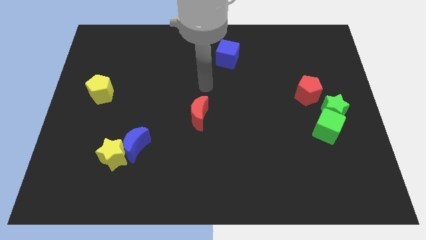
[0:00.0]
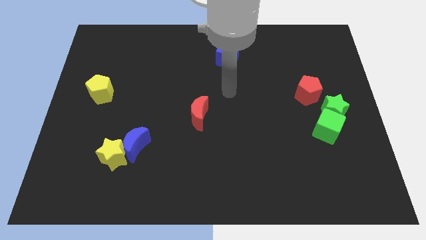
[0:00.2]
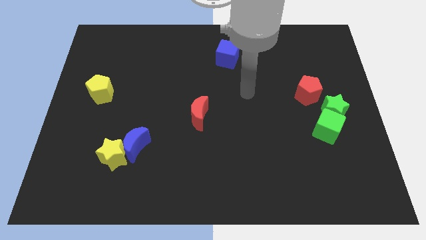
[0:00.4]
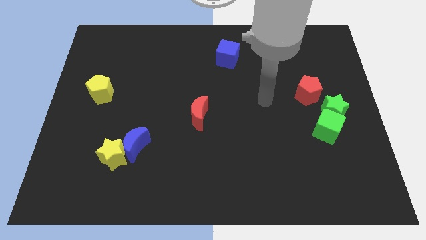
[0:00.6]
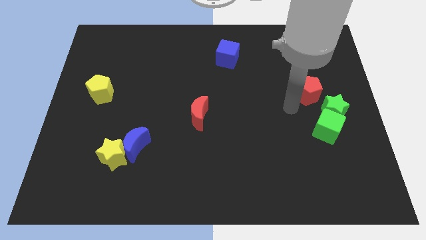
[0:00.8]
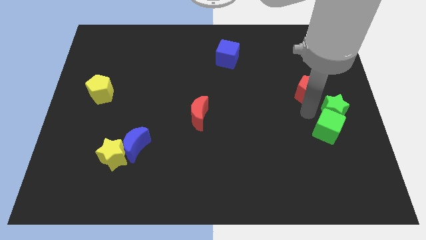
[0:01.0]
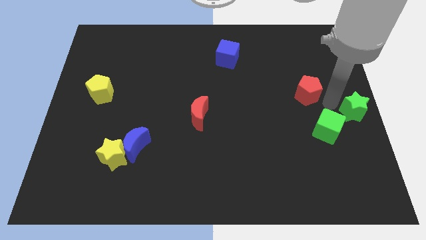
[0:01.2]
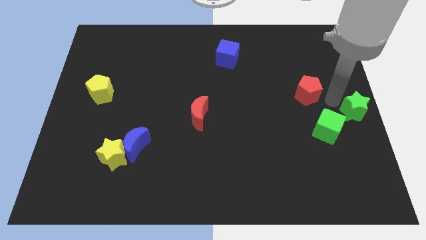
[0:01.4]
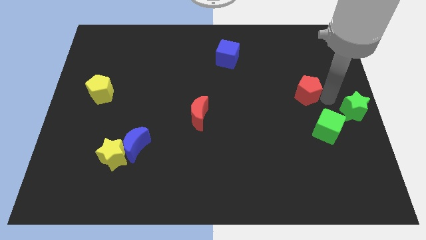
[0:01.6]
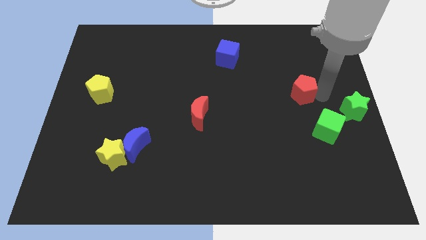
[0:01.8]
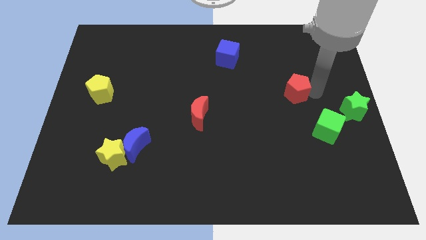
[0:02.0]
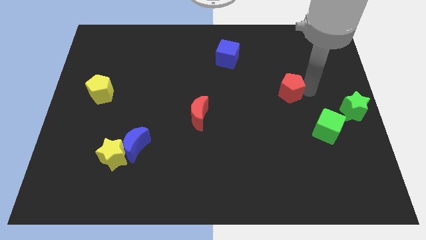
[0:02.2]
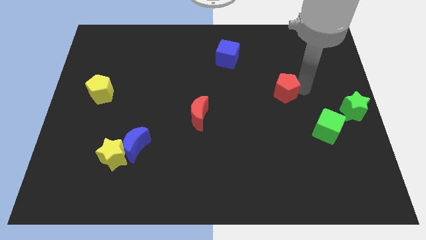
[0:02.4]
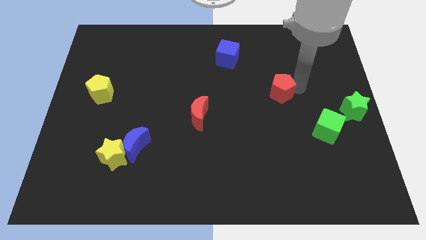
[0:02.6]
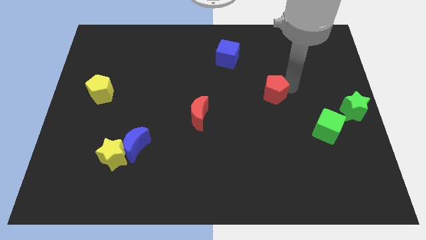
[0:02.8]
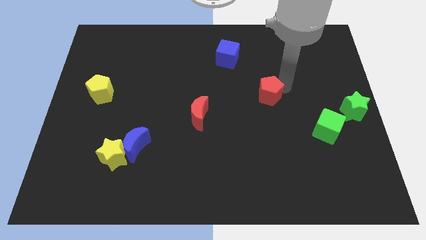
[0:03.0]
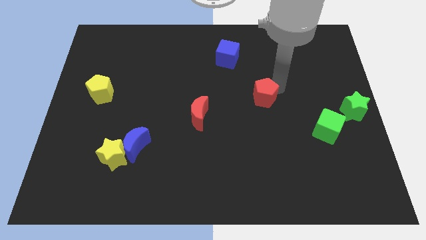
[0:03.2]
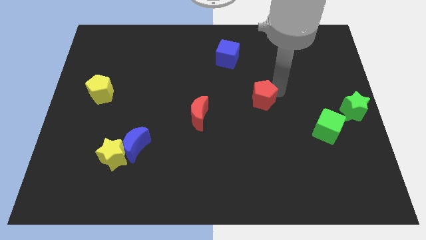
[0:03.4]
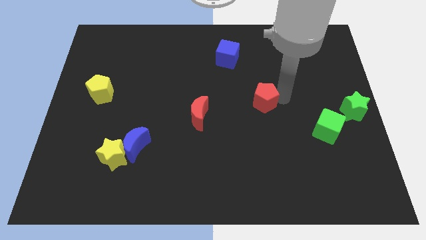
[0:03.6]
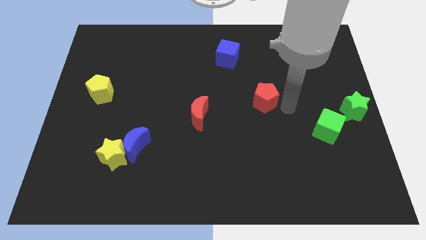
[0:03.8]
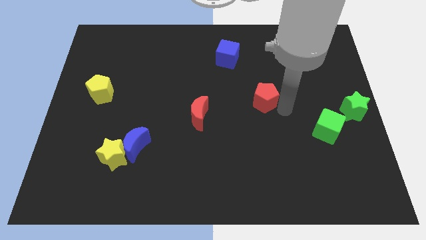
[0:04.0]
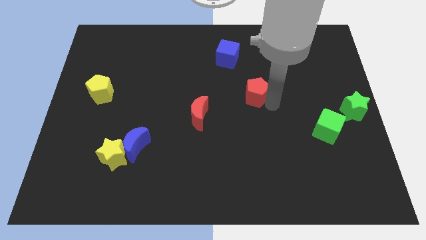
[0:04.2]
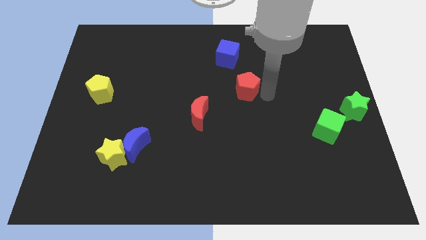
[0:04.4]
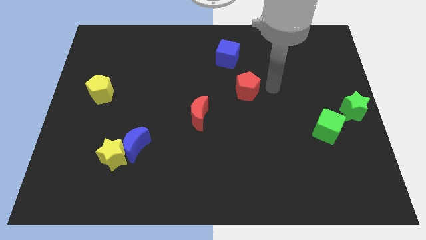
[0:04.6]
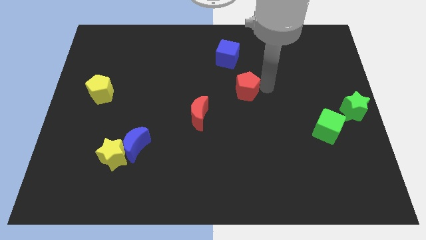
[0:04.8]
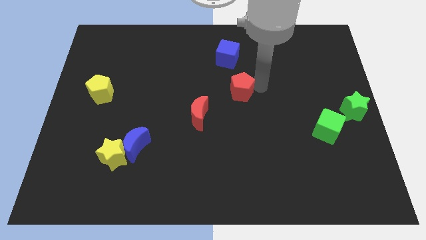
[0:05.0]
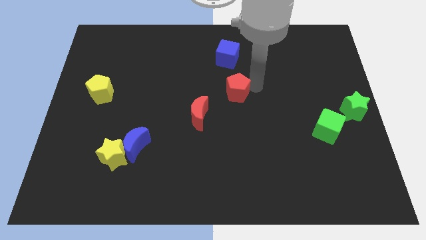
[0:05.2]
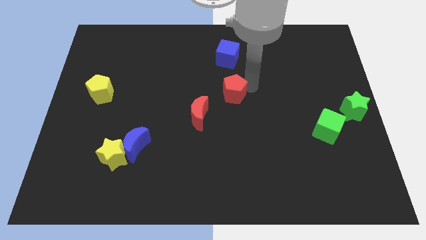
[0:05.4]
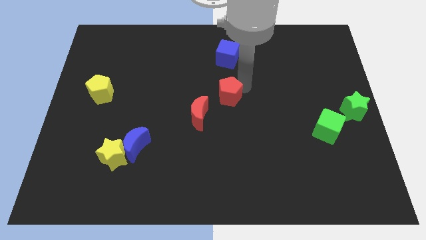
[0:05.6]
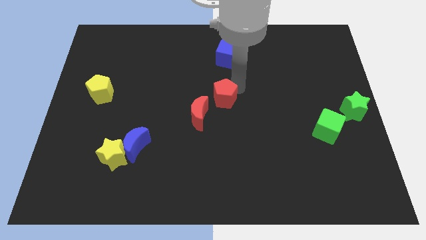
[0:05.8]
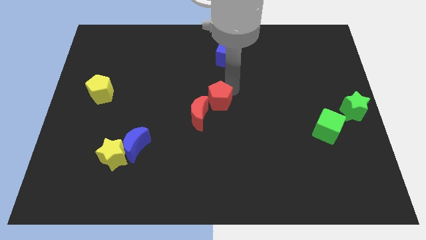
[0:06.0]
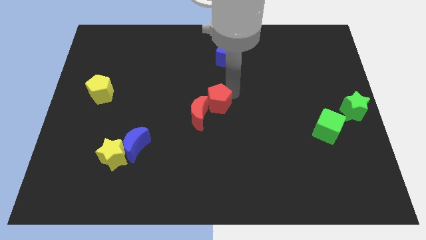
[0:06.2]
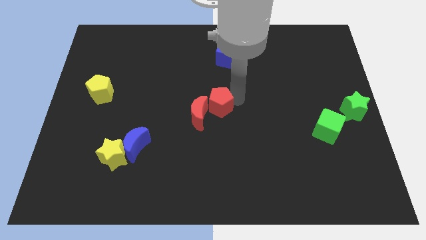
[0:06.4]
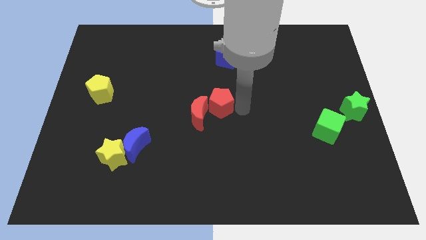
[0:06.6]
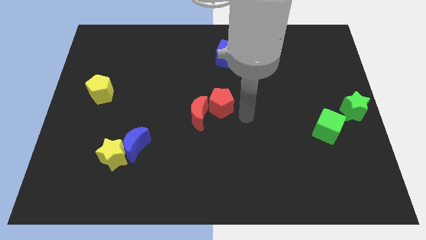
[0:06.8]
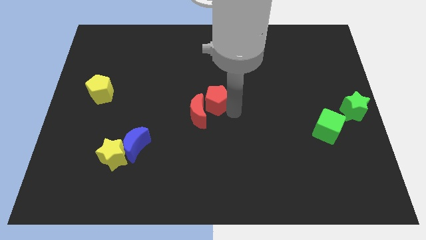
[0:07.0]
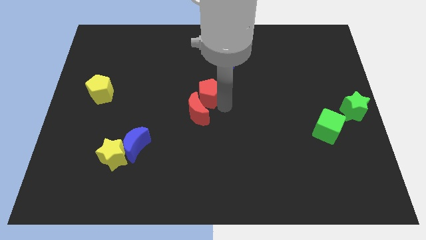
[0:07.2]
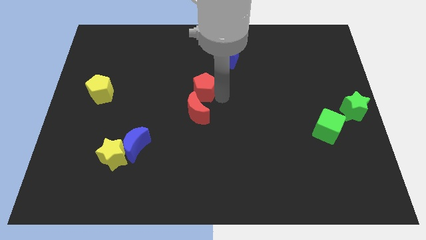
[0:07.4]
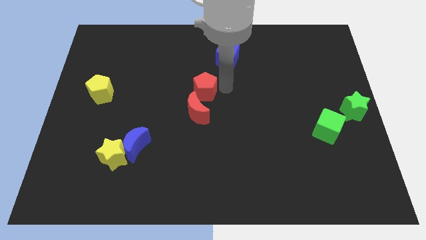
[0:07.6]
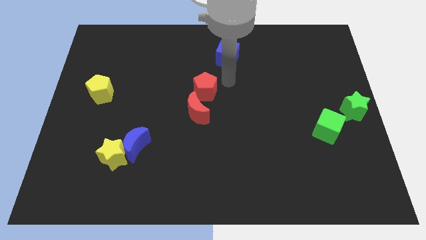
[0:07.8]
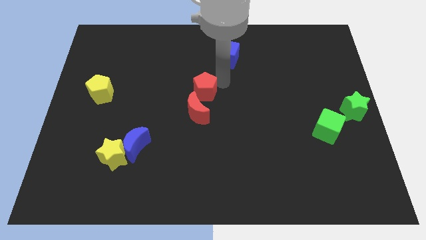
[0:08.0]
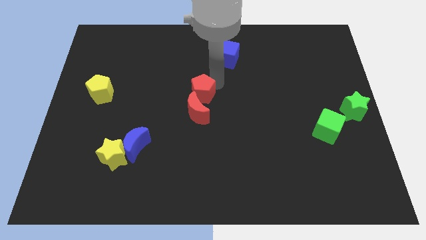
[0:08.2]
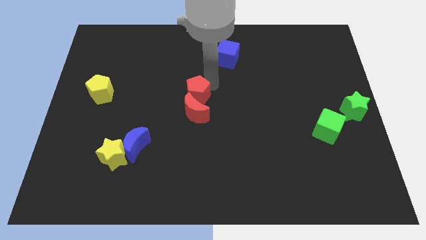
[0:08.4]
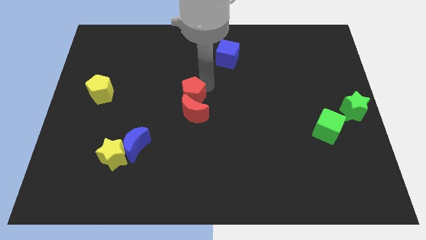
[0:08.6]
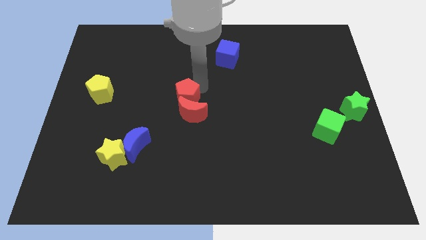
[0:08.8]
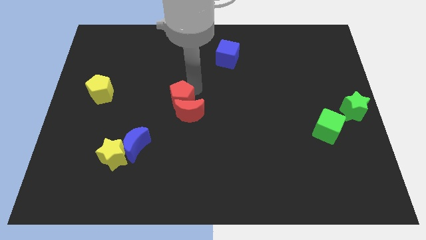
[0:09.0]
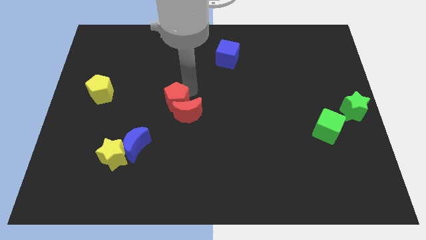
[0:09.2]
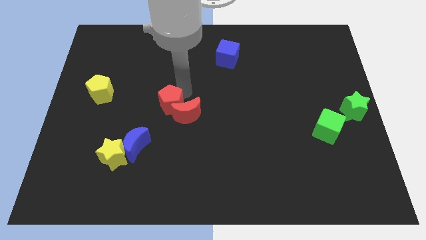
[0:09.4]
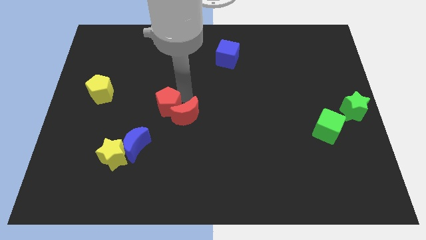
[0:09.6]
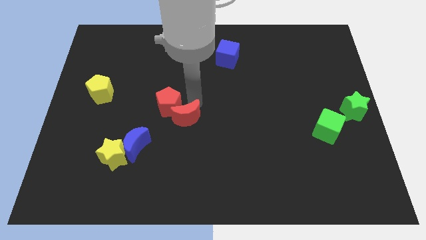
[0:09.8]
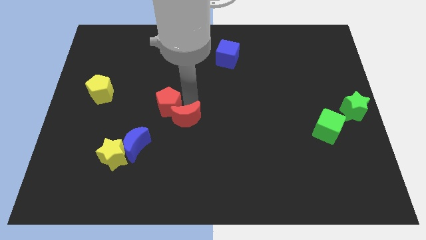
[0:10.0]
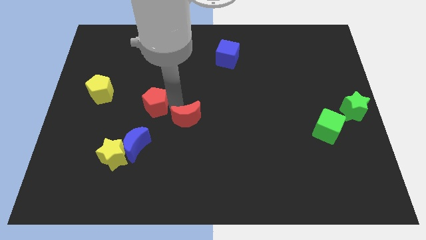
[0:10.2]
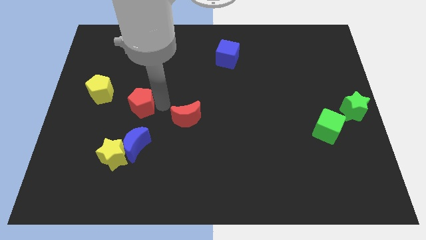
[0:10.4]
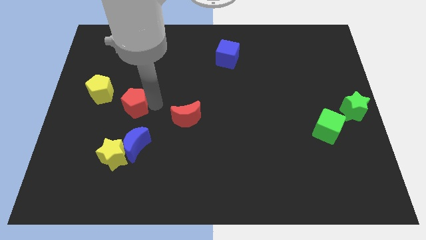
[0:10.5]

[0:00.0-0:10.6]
put the red pentagon above the yellow star

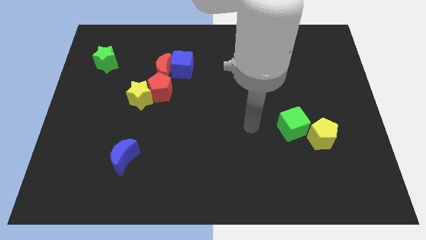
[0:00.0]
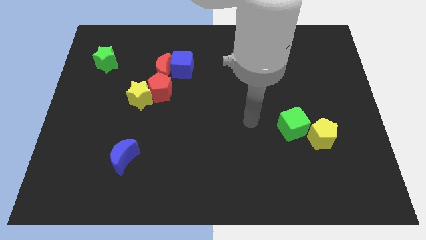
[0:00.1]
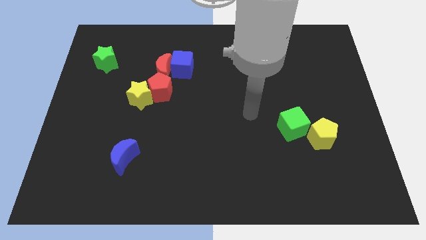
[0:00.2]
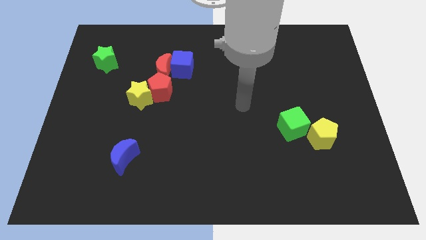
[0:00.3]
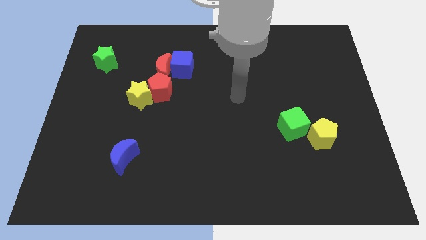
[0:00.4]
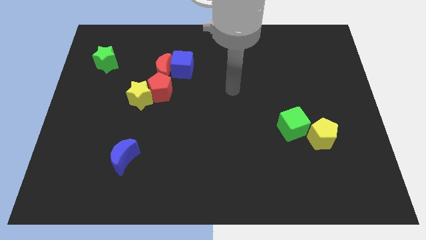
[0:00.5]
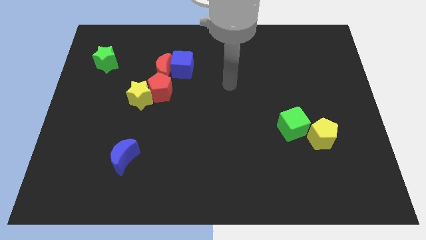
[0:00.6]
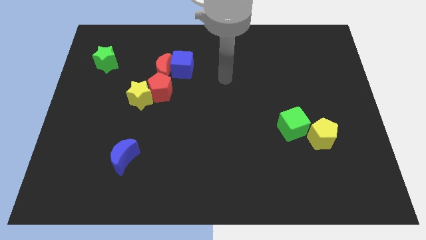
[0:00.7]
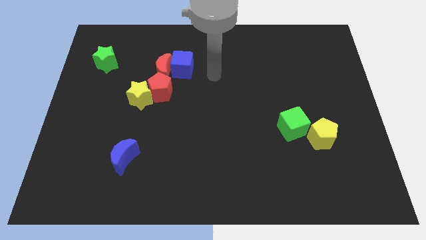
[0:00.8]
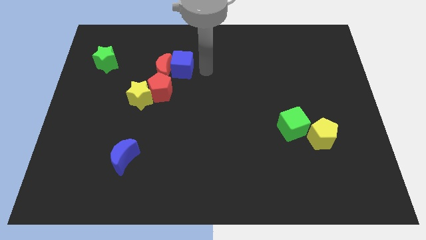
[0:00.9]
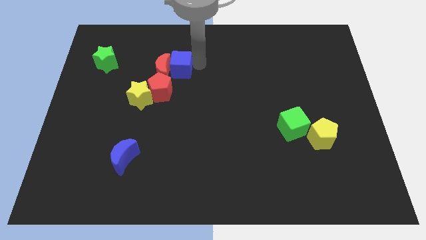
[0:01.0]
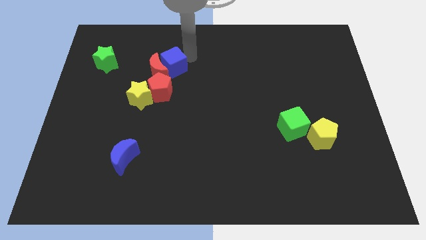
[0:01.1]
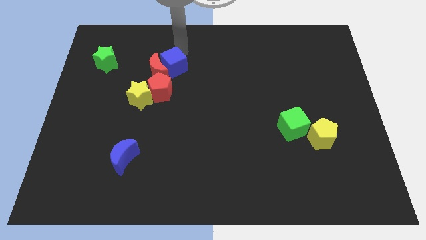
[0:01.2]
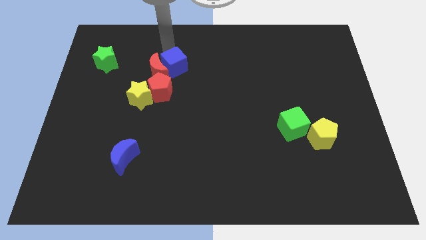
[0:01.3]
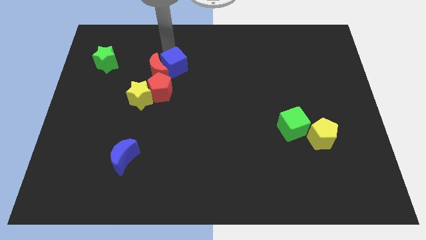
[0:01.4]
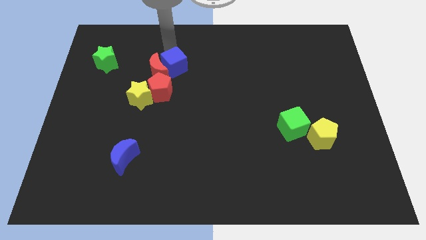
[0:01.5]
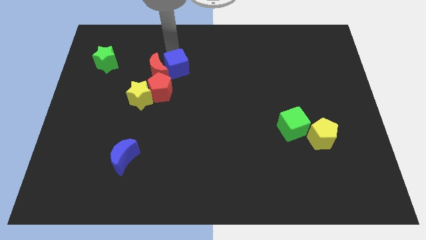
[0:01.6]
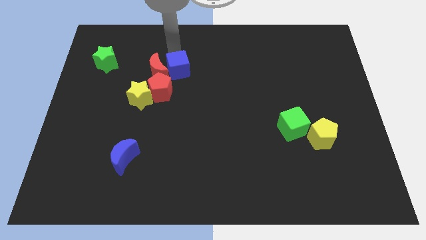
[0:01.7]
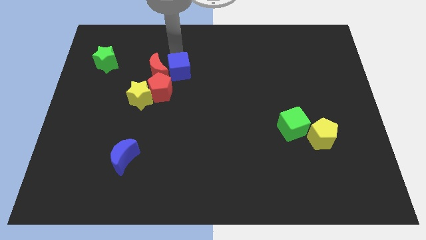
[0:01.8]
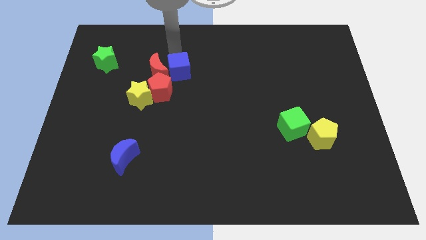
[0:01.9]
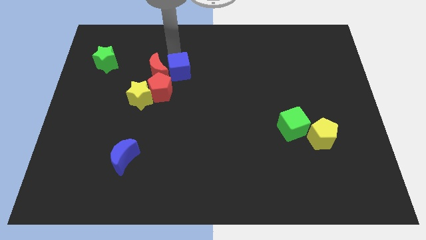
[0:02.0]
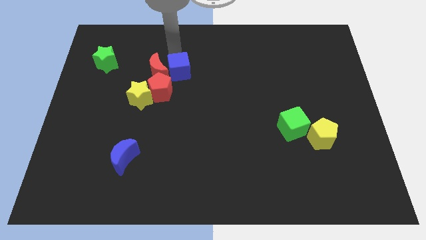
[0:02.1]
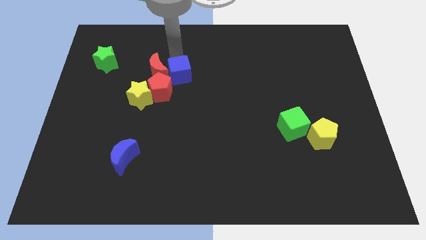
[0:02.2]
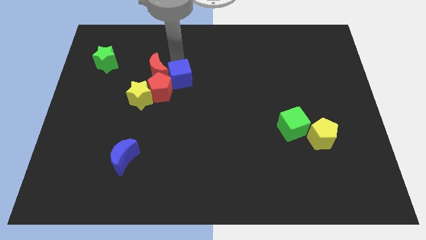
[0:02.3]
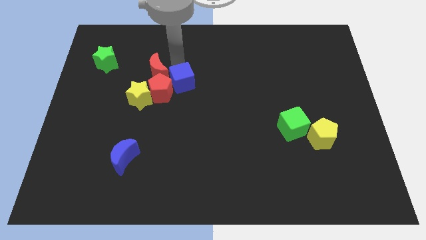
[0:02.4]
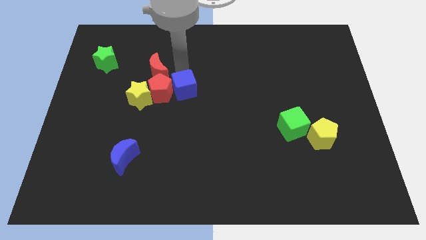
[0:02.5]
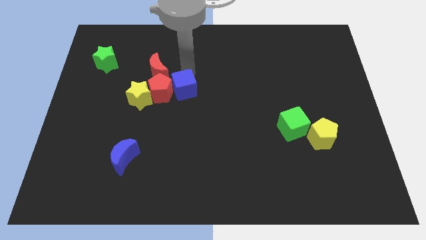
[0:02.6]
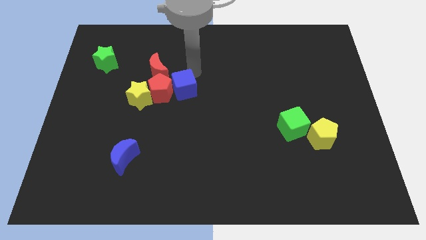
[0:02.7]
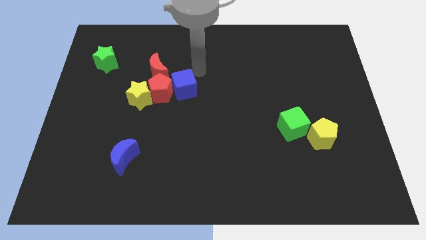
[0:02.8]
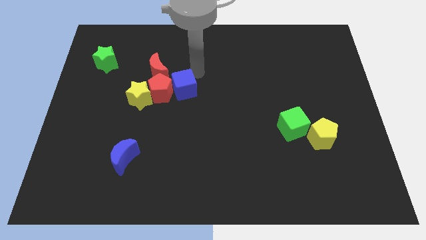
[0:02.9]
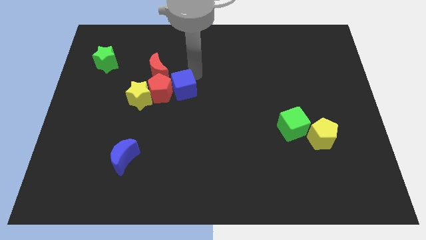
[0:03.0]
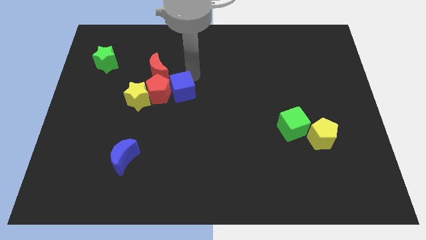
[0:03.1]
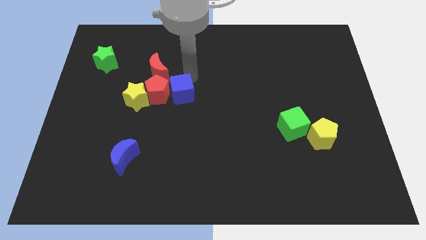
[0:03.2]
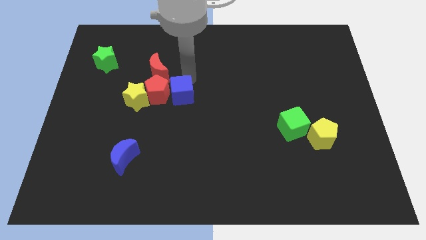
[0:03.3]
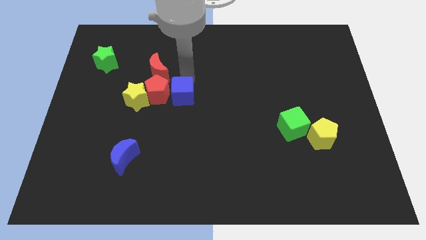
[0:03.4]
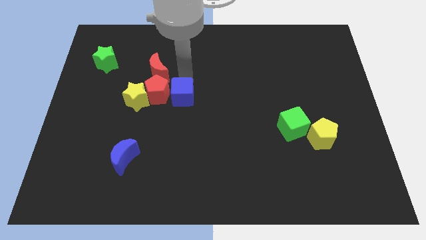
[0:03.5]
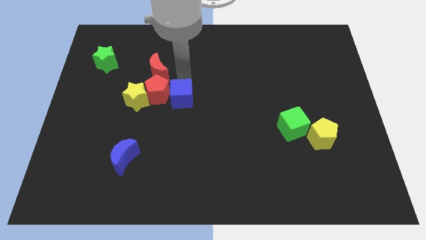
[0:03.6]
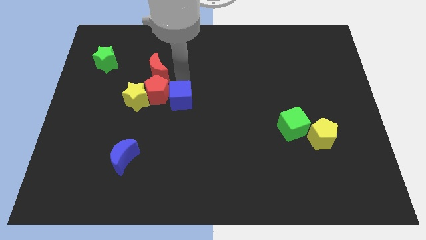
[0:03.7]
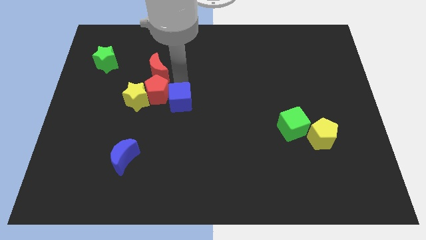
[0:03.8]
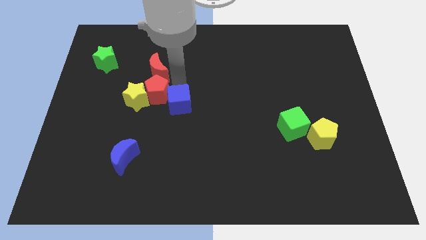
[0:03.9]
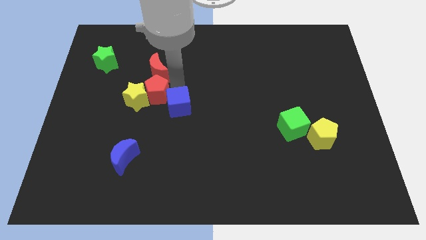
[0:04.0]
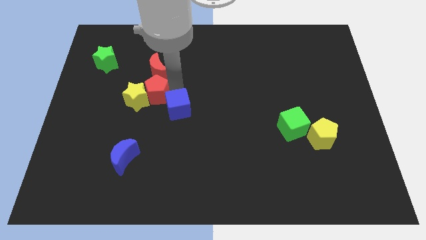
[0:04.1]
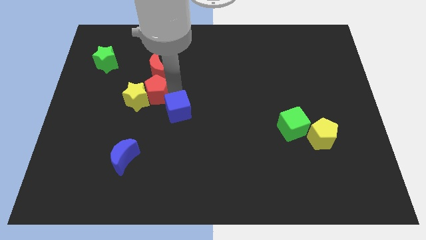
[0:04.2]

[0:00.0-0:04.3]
push the blue cube to the bottom right side of the yellow star
